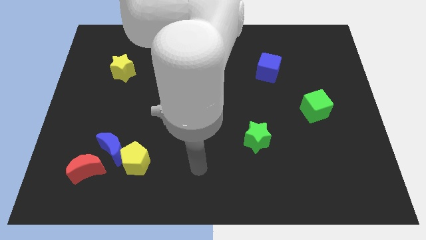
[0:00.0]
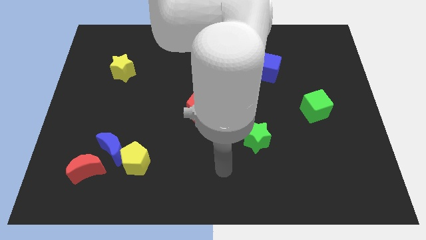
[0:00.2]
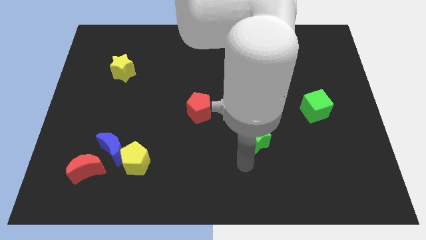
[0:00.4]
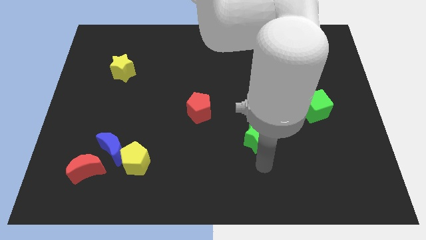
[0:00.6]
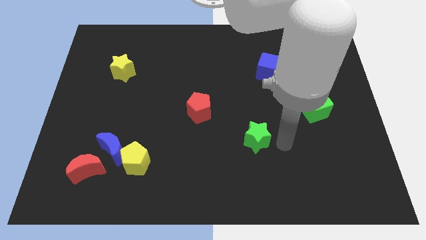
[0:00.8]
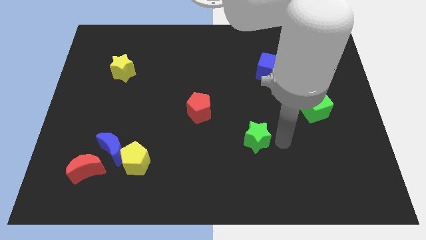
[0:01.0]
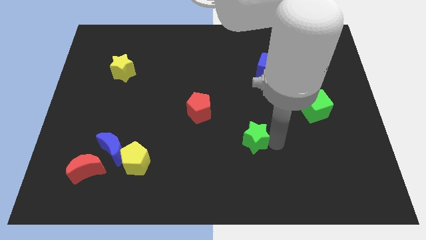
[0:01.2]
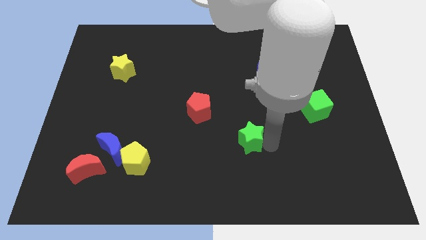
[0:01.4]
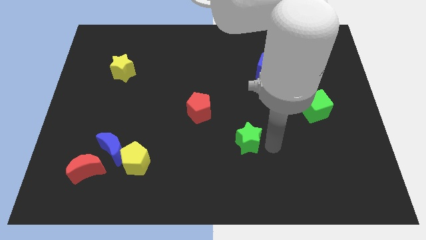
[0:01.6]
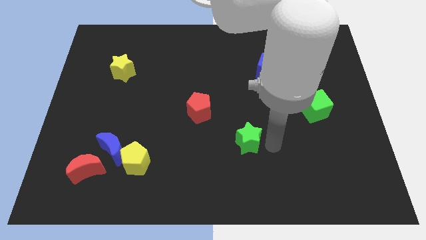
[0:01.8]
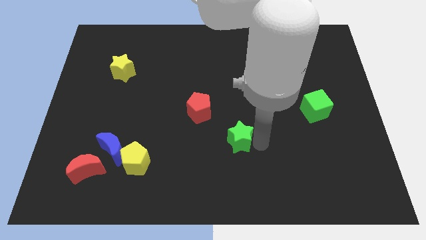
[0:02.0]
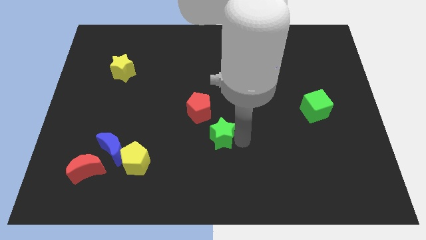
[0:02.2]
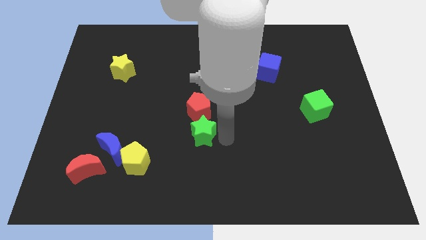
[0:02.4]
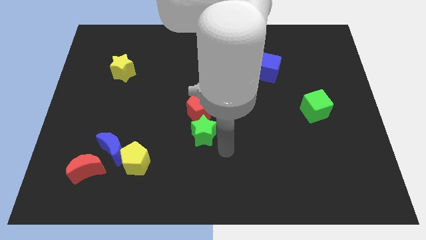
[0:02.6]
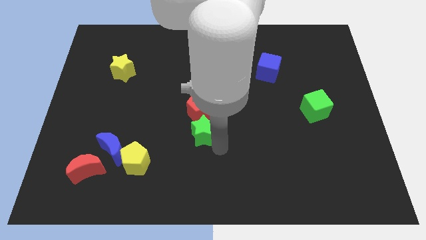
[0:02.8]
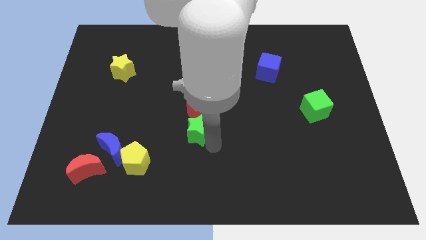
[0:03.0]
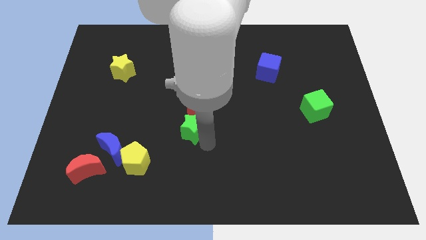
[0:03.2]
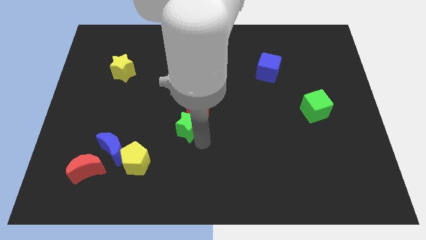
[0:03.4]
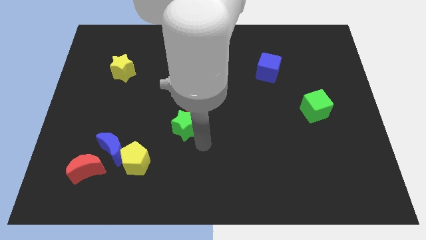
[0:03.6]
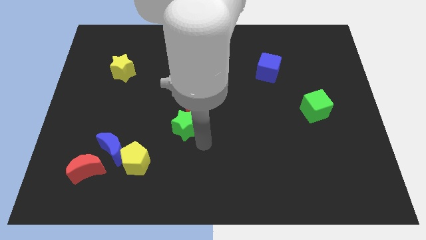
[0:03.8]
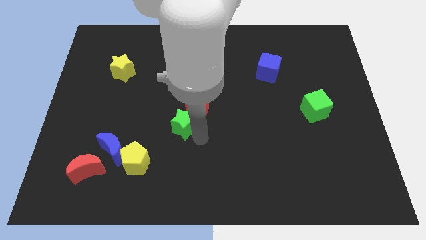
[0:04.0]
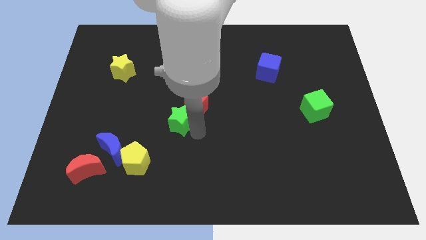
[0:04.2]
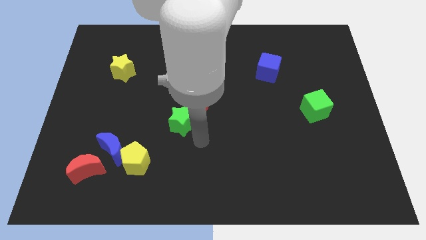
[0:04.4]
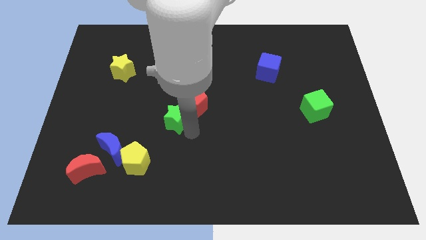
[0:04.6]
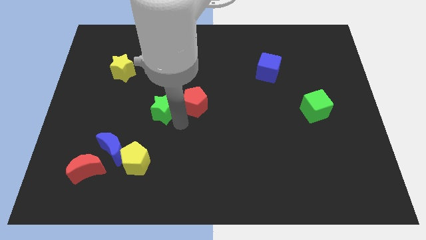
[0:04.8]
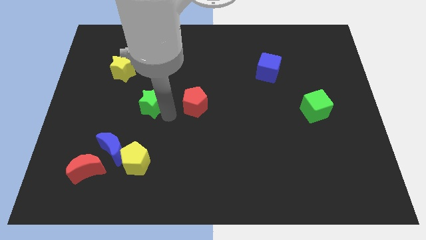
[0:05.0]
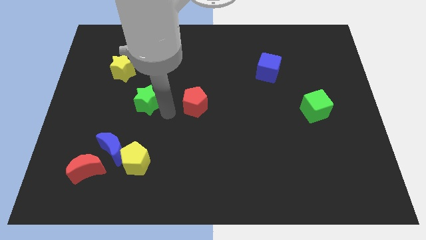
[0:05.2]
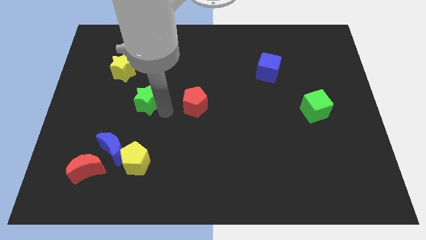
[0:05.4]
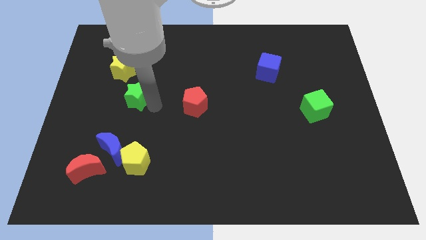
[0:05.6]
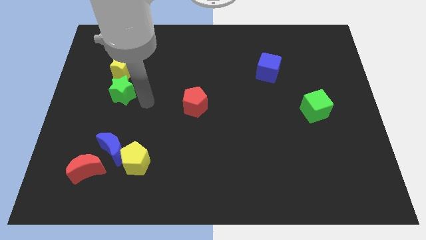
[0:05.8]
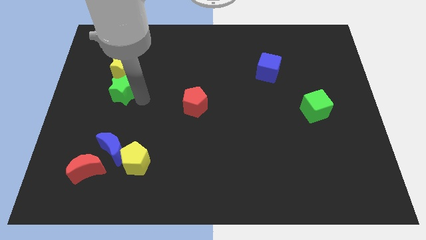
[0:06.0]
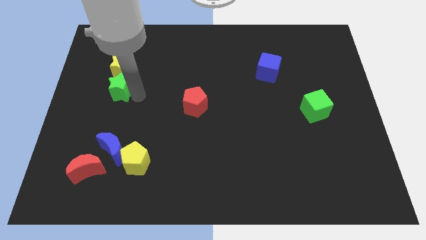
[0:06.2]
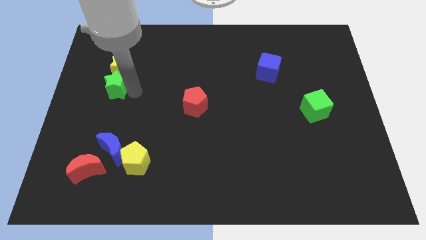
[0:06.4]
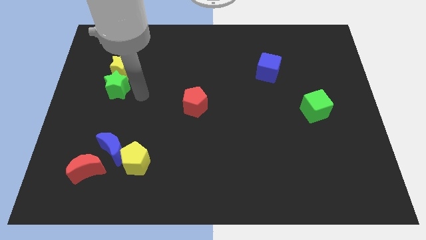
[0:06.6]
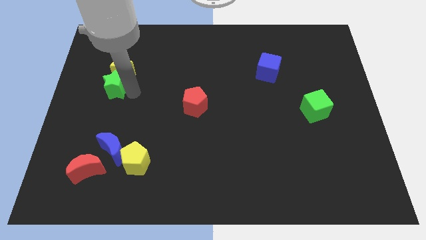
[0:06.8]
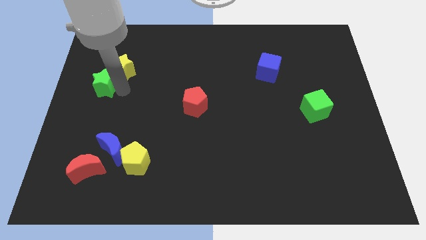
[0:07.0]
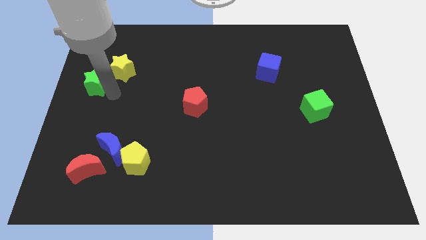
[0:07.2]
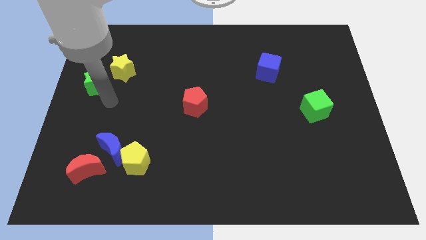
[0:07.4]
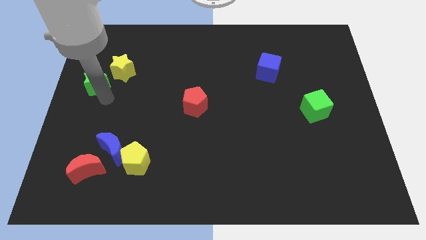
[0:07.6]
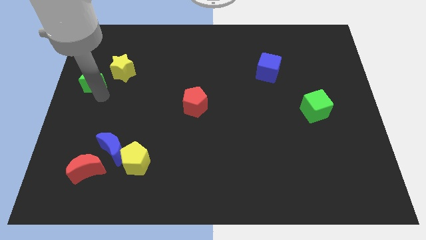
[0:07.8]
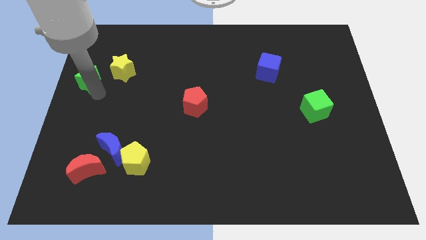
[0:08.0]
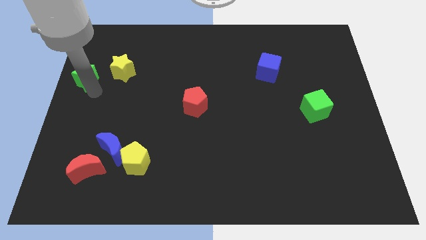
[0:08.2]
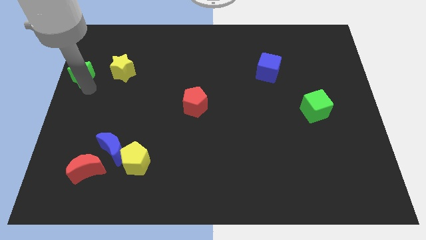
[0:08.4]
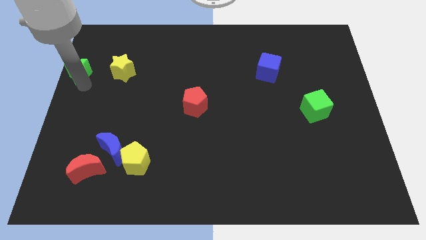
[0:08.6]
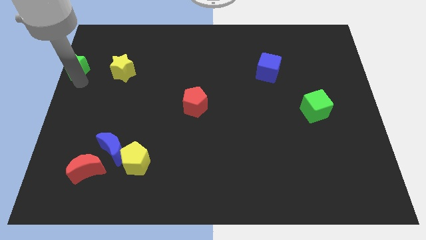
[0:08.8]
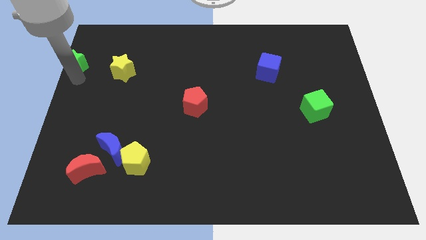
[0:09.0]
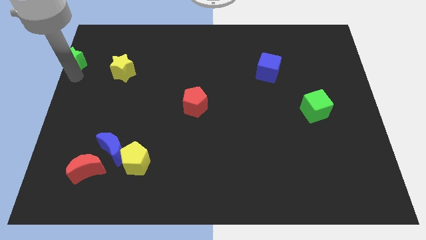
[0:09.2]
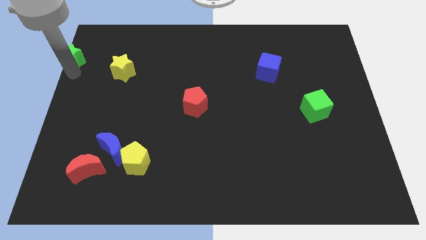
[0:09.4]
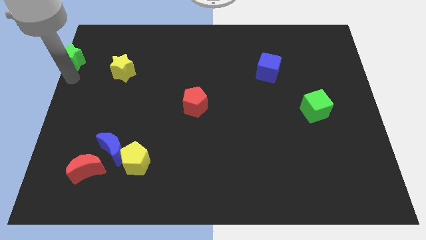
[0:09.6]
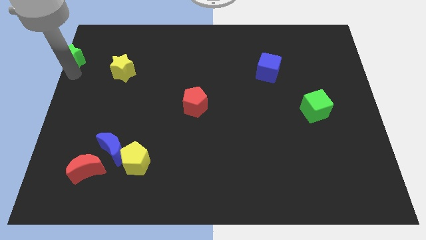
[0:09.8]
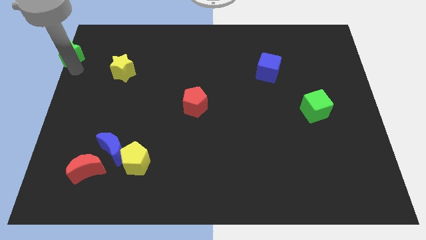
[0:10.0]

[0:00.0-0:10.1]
push the green star to the top left of the board

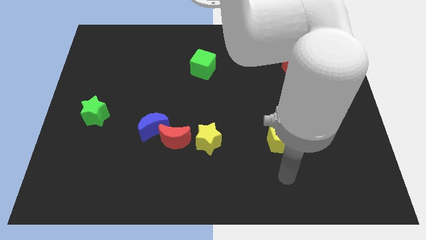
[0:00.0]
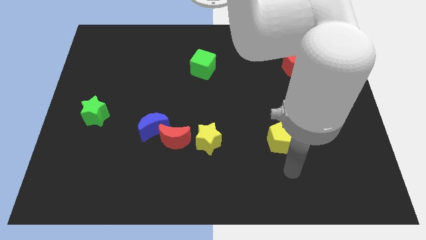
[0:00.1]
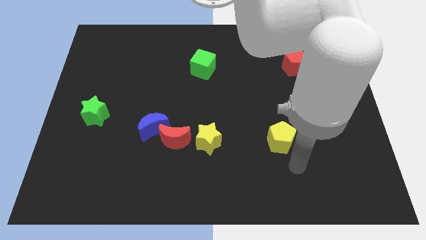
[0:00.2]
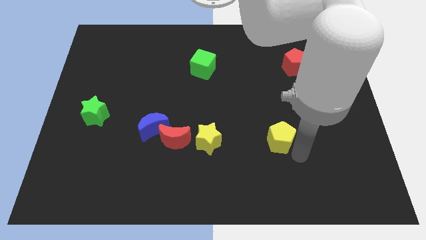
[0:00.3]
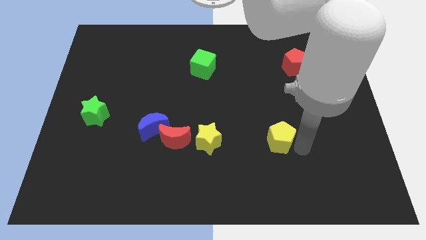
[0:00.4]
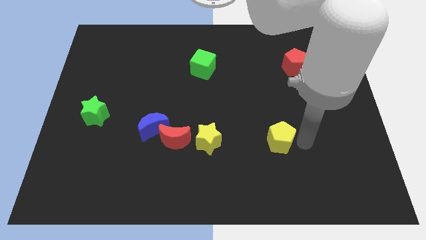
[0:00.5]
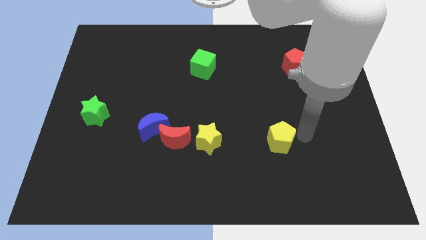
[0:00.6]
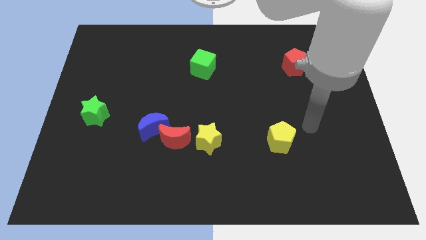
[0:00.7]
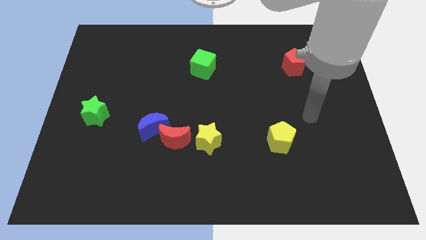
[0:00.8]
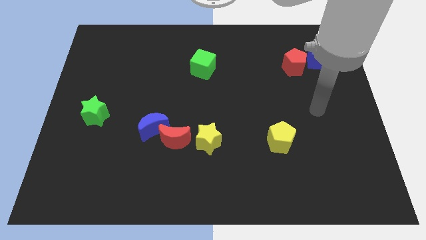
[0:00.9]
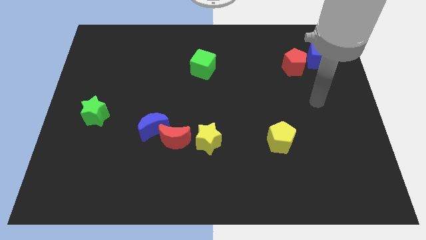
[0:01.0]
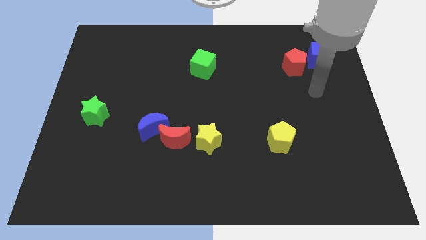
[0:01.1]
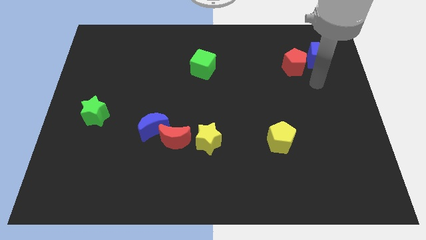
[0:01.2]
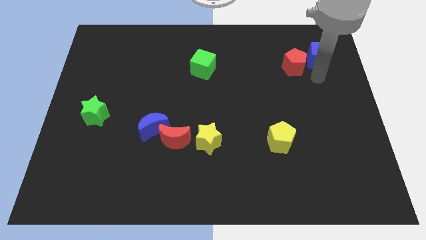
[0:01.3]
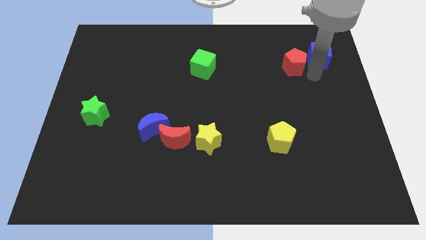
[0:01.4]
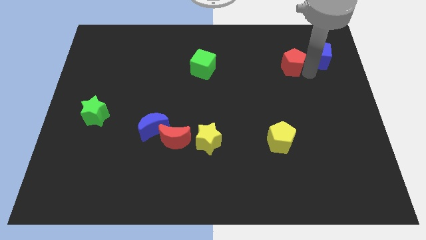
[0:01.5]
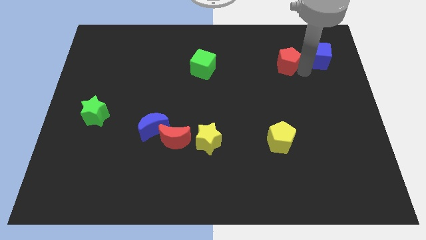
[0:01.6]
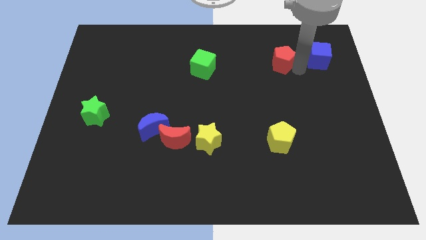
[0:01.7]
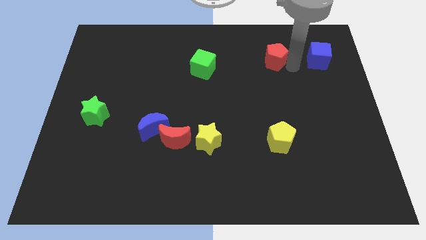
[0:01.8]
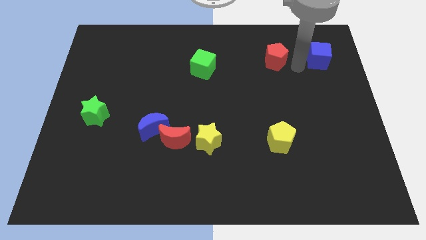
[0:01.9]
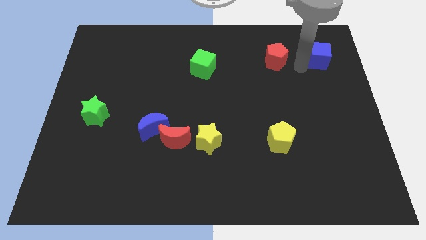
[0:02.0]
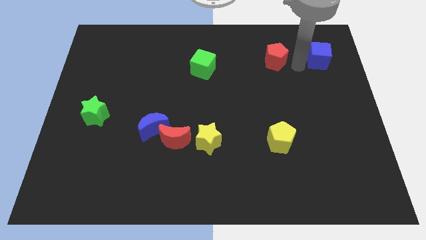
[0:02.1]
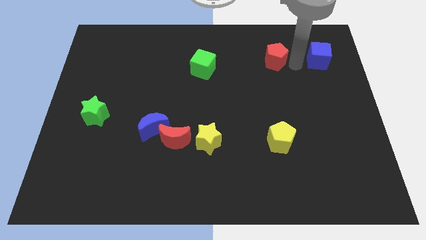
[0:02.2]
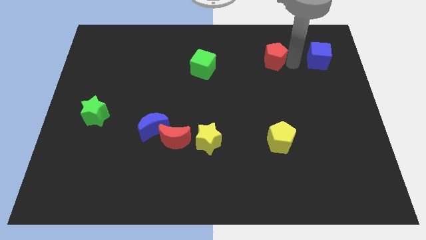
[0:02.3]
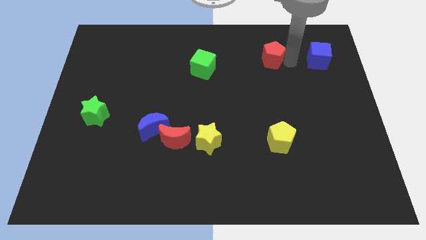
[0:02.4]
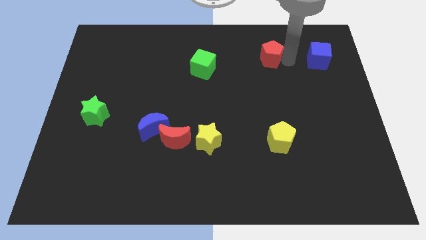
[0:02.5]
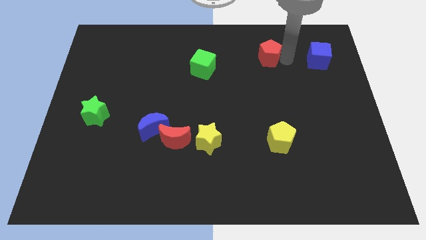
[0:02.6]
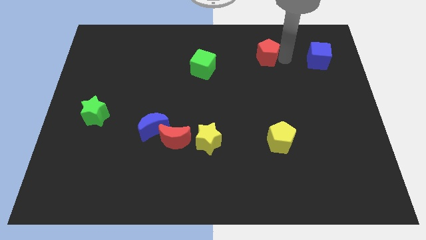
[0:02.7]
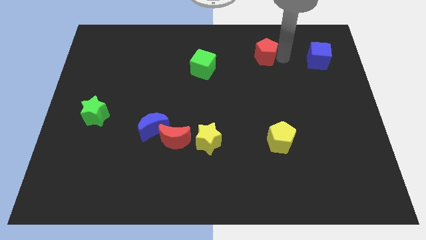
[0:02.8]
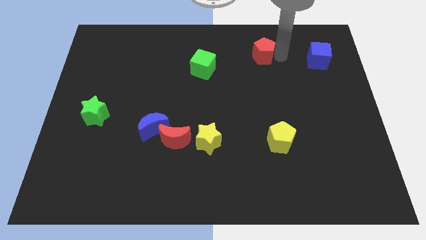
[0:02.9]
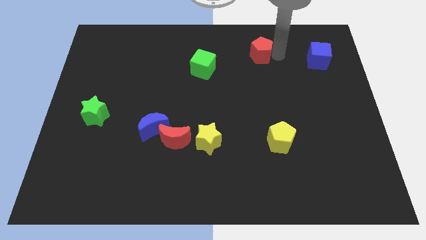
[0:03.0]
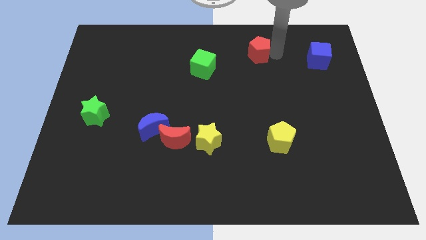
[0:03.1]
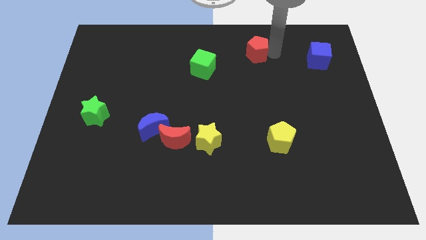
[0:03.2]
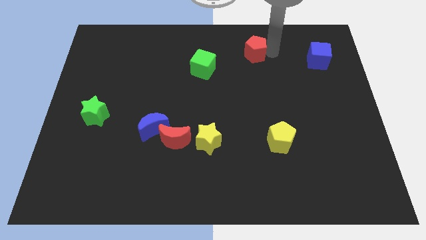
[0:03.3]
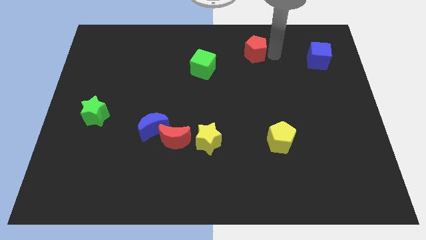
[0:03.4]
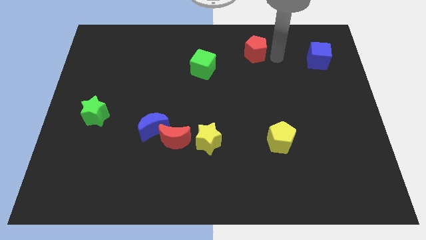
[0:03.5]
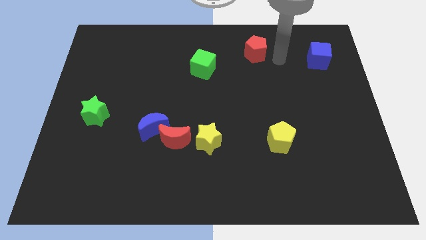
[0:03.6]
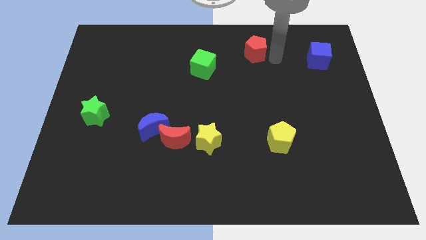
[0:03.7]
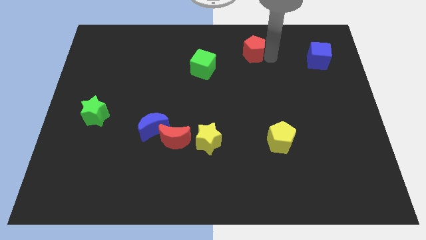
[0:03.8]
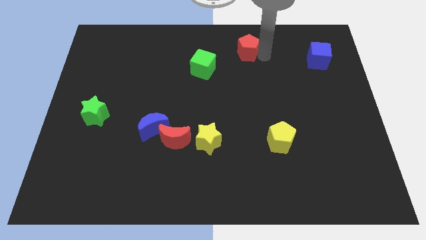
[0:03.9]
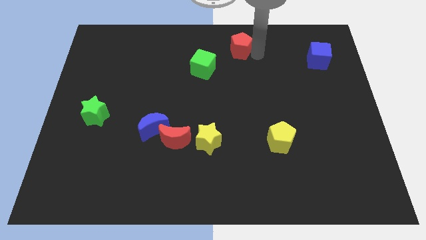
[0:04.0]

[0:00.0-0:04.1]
slide the red pentagon to the towards your base
